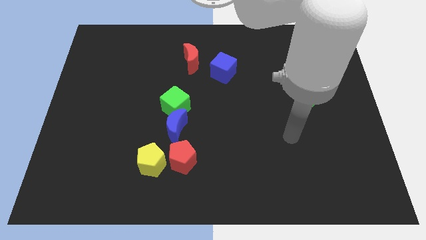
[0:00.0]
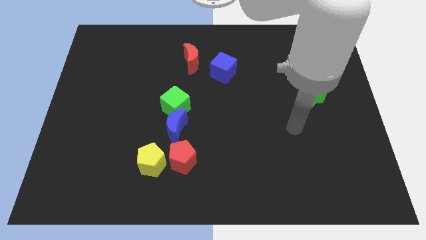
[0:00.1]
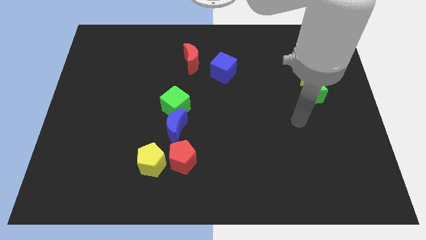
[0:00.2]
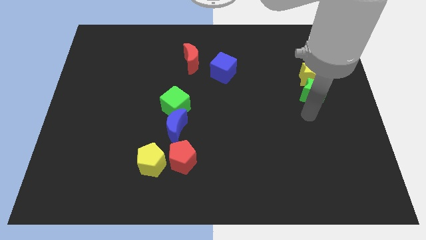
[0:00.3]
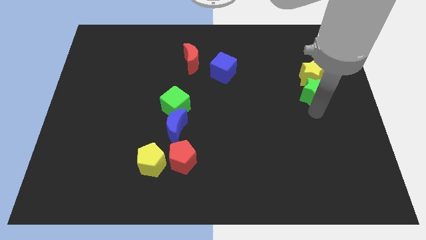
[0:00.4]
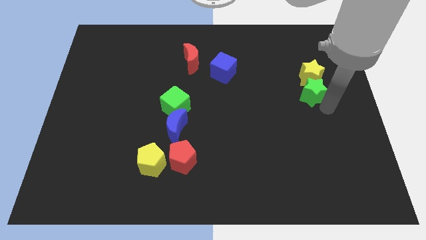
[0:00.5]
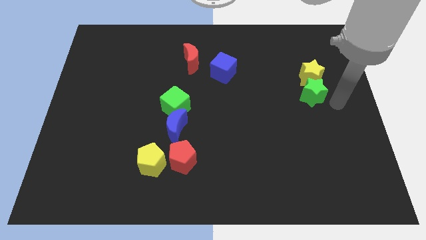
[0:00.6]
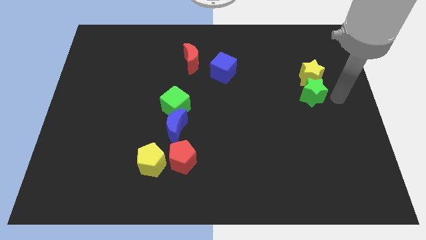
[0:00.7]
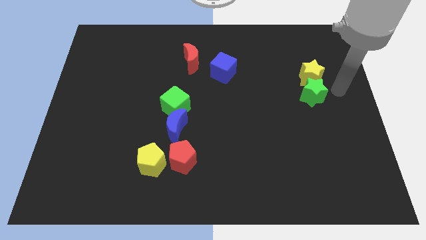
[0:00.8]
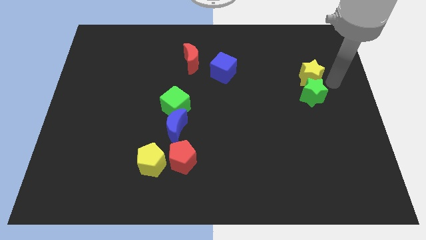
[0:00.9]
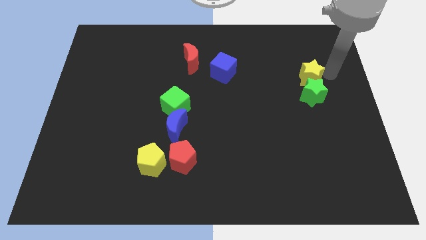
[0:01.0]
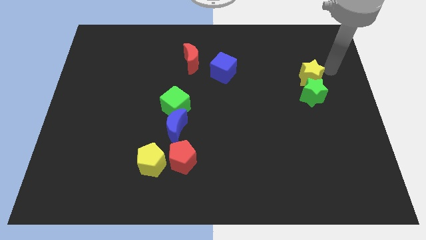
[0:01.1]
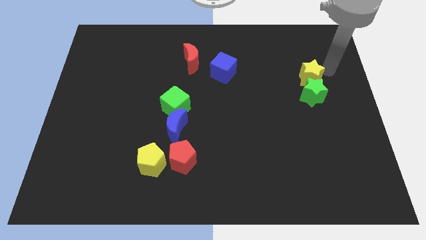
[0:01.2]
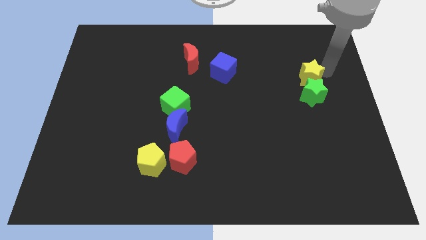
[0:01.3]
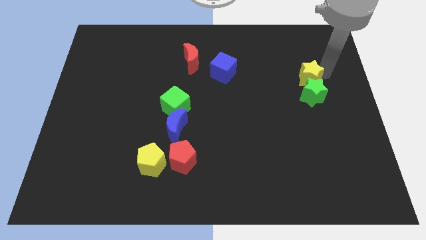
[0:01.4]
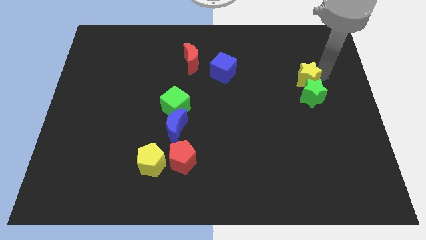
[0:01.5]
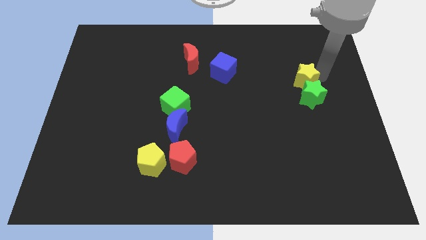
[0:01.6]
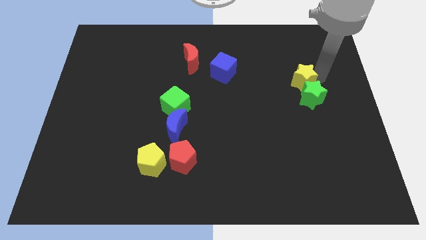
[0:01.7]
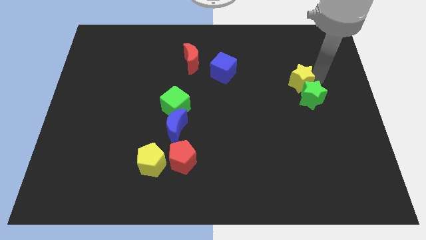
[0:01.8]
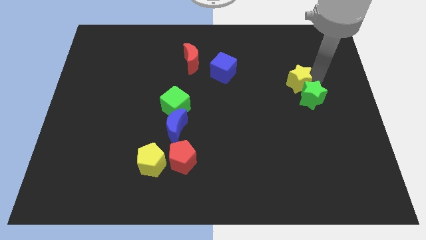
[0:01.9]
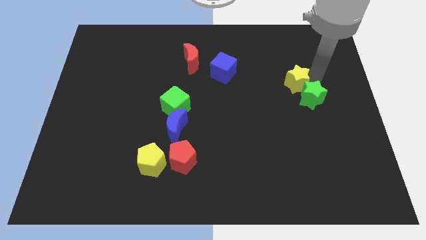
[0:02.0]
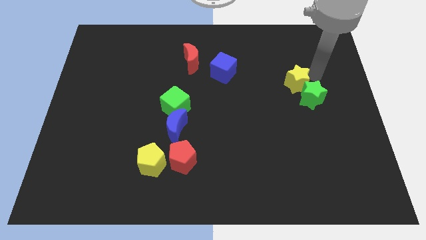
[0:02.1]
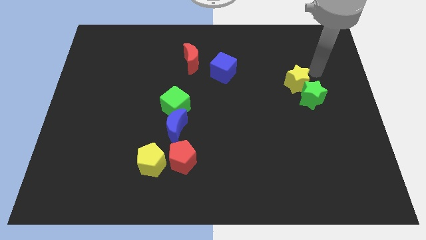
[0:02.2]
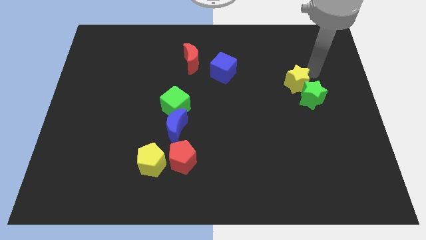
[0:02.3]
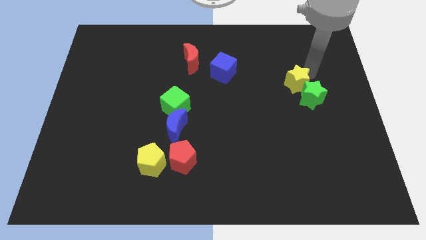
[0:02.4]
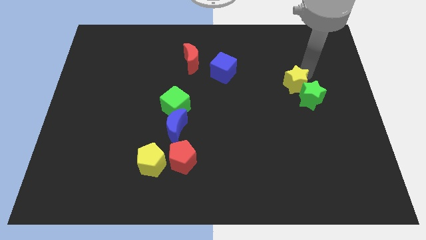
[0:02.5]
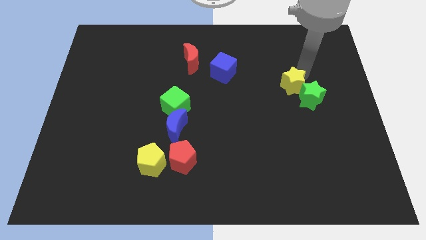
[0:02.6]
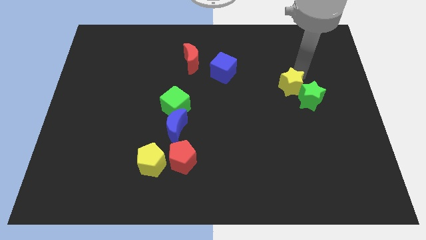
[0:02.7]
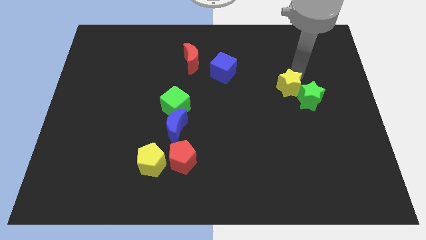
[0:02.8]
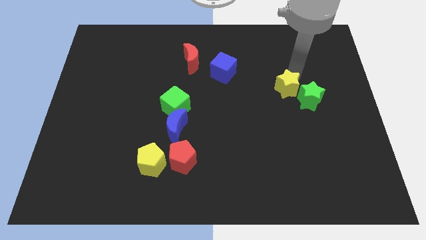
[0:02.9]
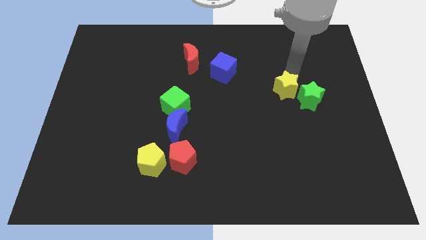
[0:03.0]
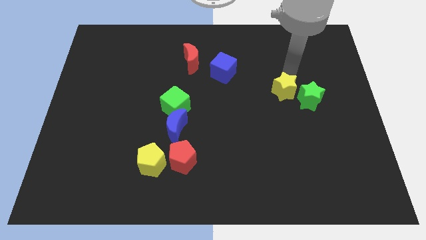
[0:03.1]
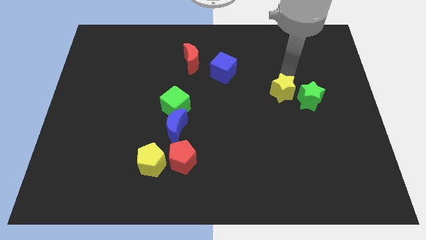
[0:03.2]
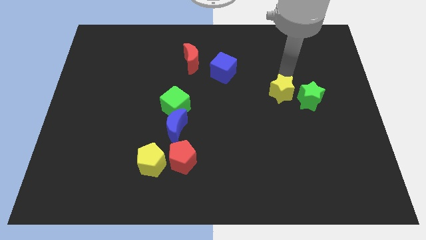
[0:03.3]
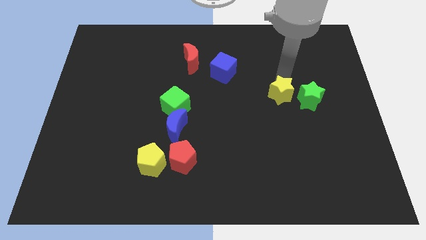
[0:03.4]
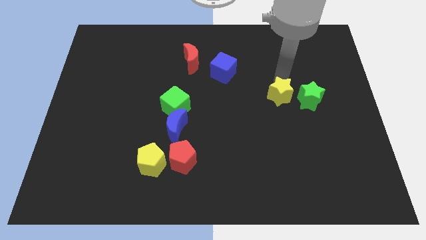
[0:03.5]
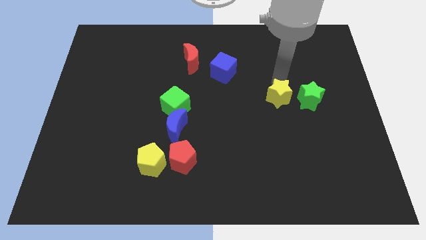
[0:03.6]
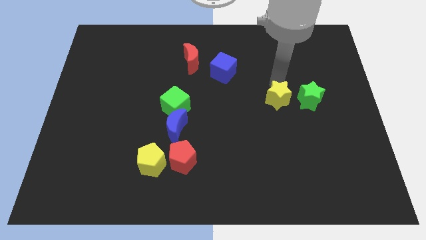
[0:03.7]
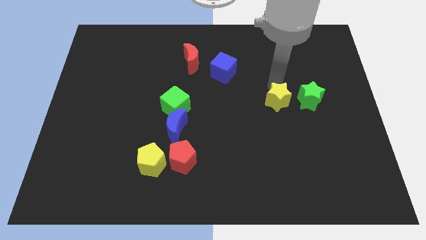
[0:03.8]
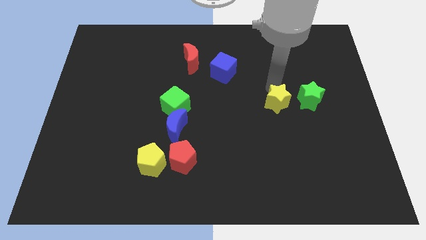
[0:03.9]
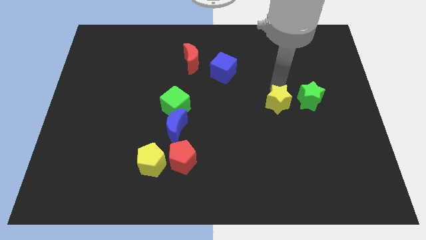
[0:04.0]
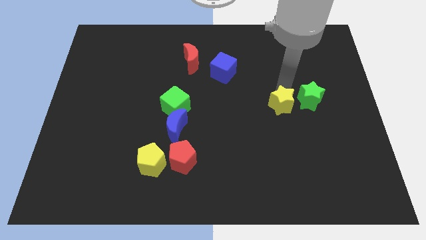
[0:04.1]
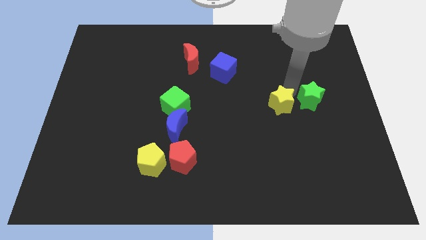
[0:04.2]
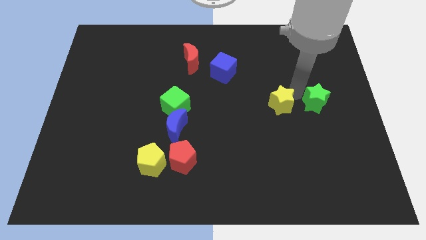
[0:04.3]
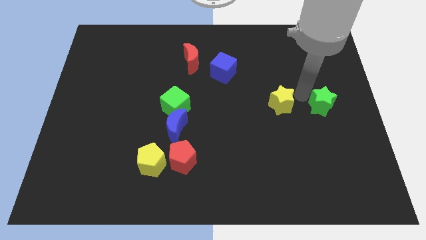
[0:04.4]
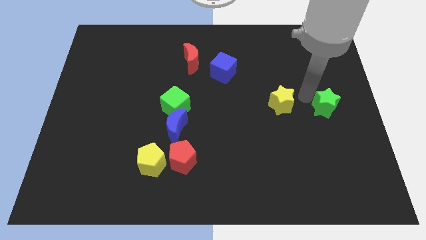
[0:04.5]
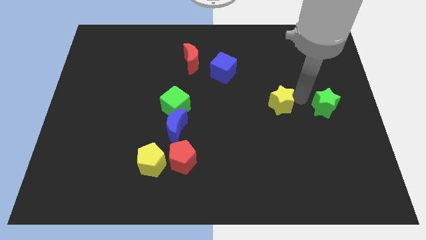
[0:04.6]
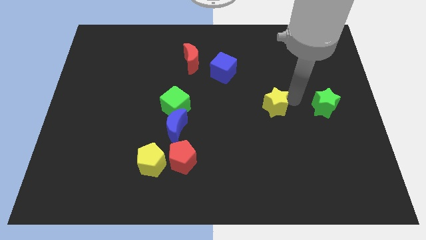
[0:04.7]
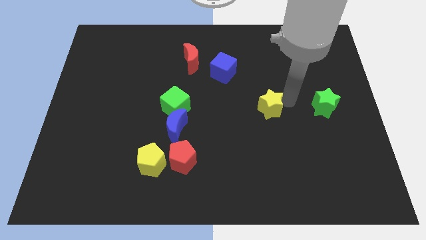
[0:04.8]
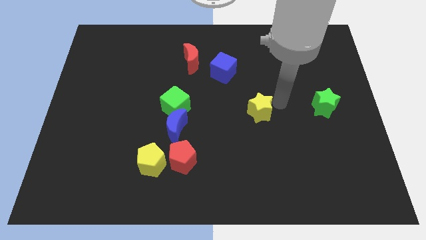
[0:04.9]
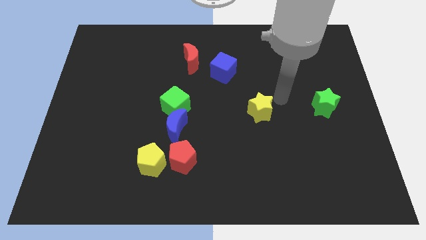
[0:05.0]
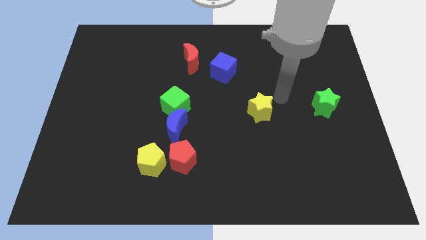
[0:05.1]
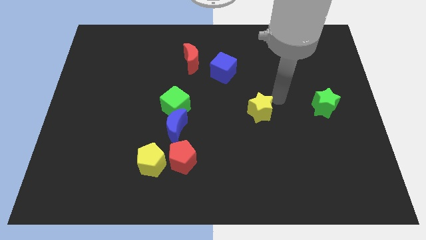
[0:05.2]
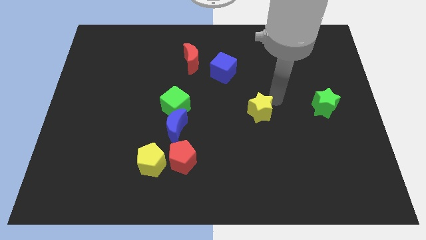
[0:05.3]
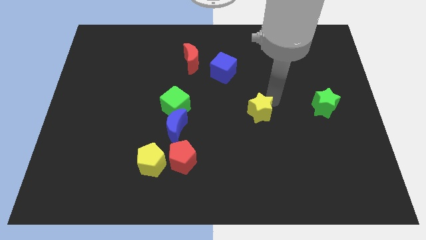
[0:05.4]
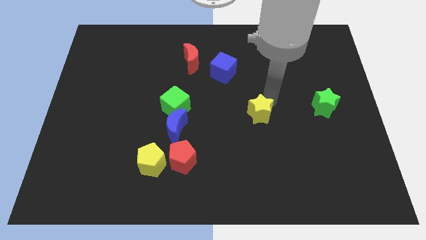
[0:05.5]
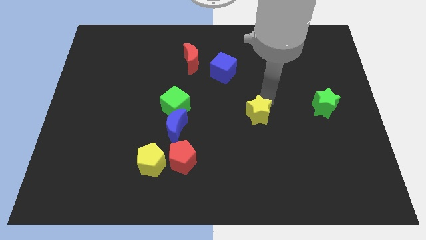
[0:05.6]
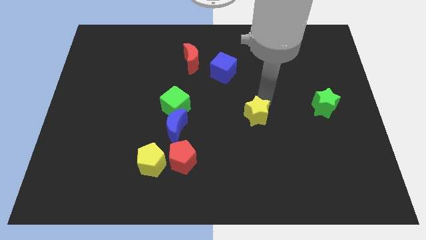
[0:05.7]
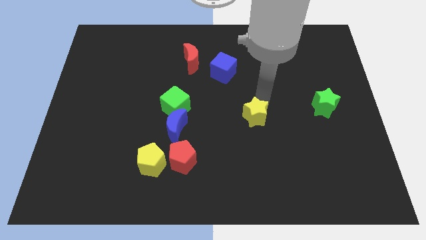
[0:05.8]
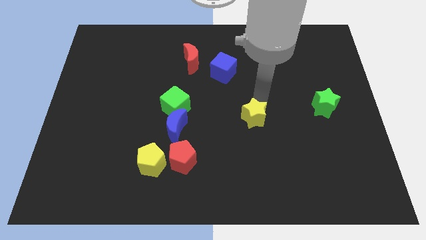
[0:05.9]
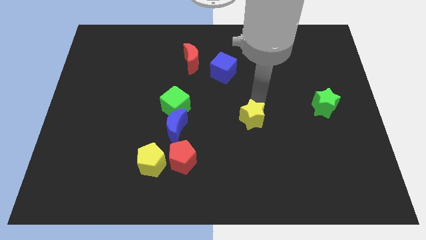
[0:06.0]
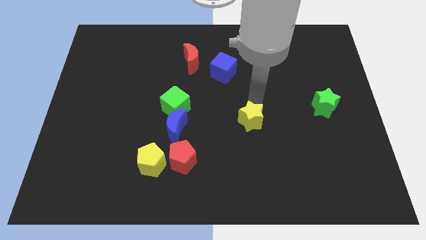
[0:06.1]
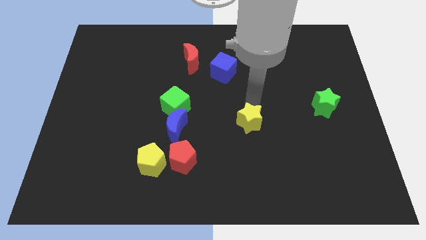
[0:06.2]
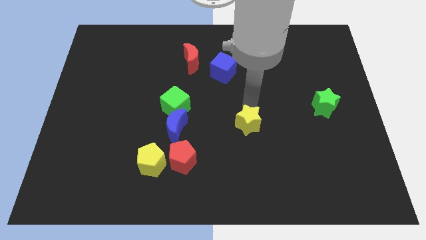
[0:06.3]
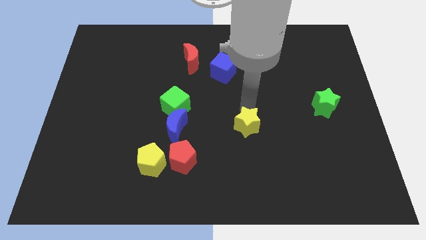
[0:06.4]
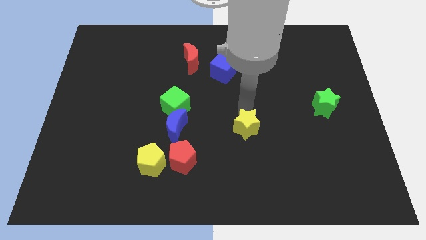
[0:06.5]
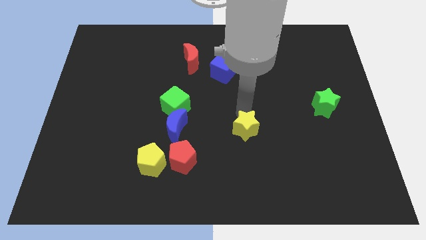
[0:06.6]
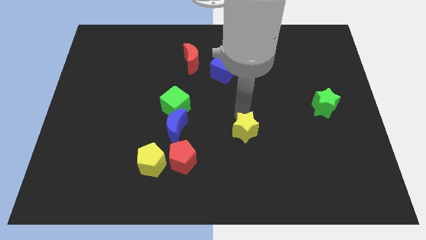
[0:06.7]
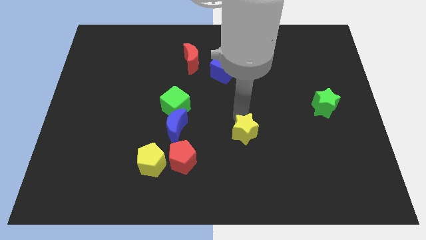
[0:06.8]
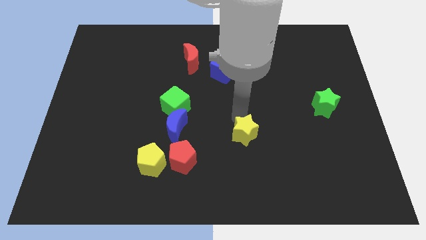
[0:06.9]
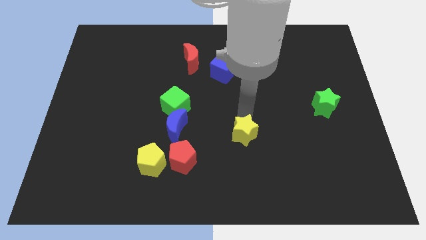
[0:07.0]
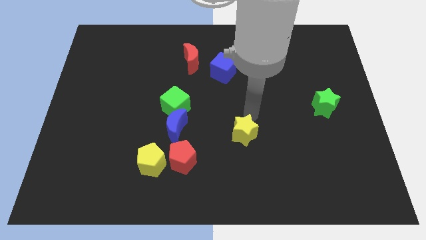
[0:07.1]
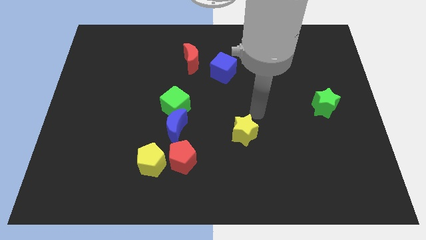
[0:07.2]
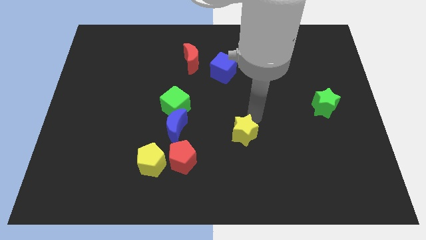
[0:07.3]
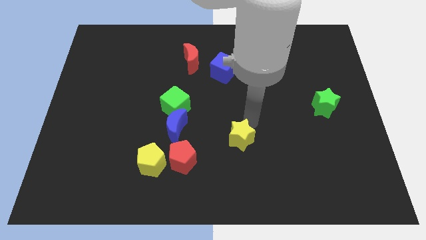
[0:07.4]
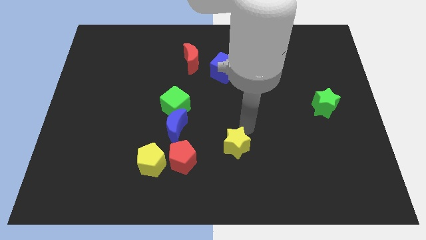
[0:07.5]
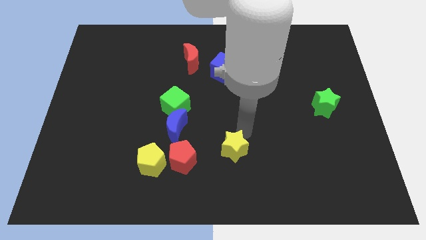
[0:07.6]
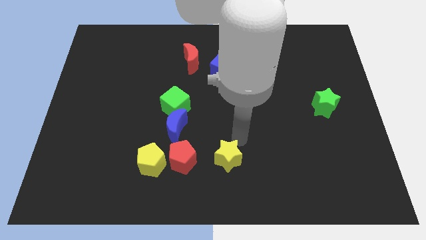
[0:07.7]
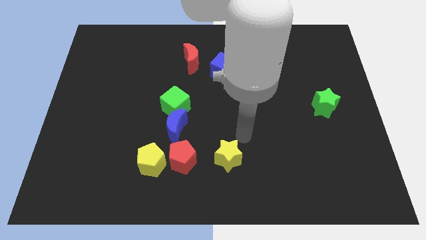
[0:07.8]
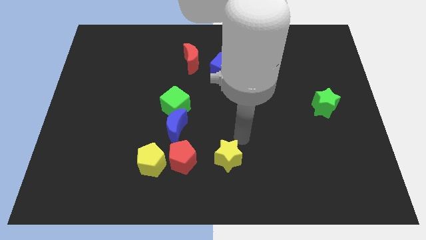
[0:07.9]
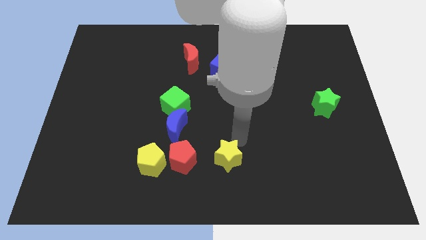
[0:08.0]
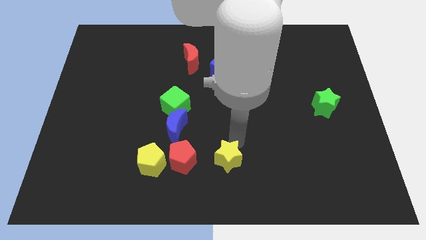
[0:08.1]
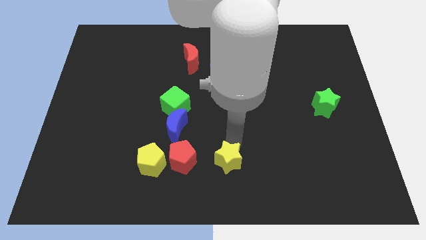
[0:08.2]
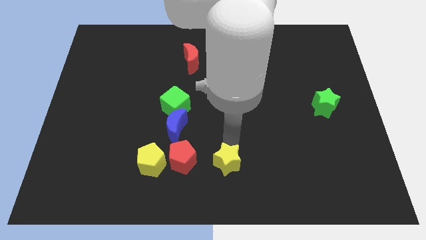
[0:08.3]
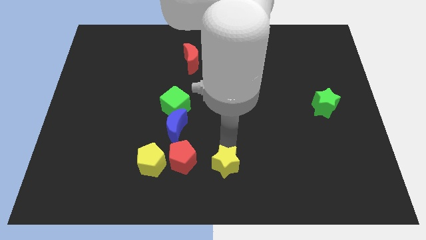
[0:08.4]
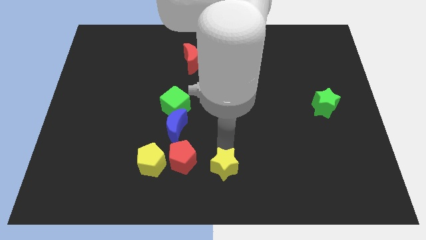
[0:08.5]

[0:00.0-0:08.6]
put the yellow star to the bottom right side of the red pentagon
